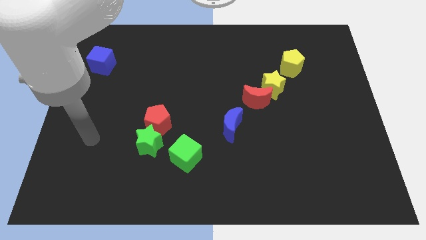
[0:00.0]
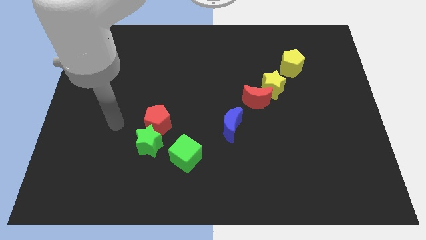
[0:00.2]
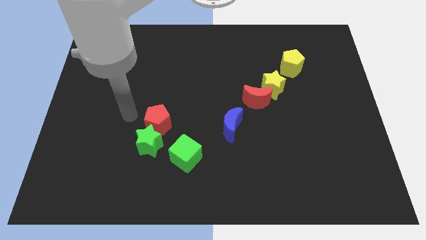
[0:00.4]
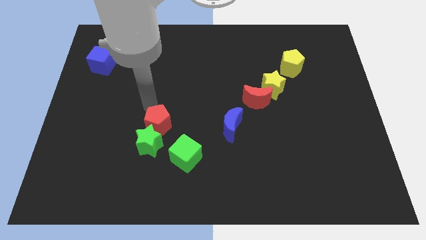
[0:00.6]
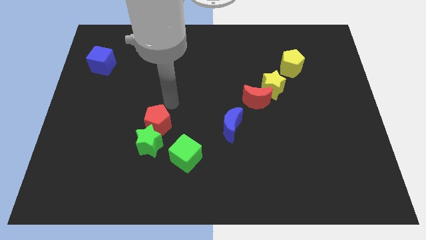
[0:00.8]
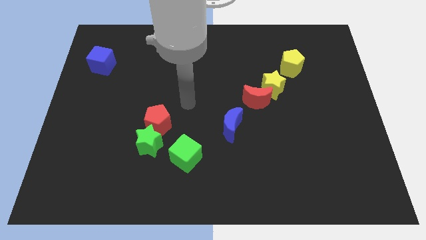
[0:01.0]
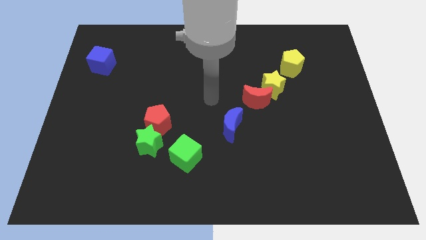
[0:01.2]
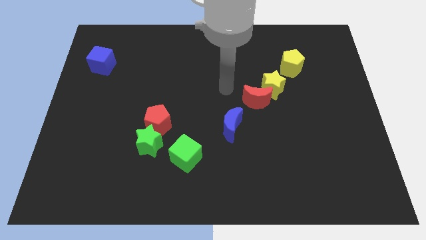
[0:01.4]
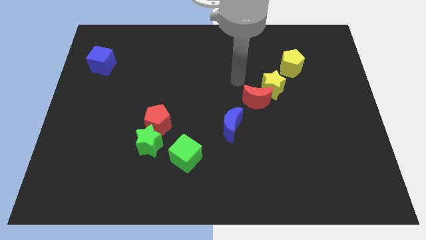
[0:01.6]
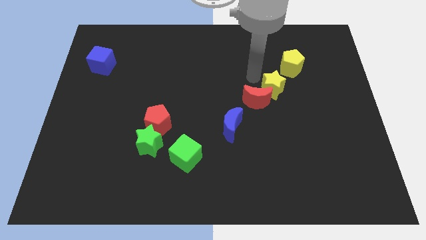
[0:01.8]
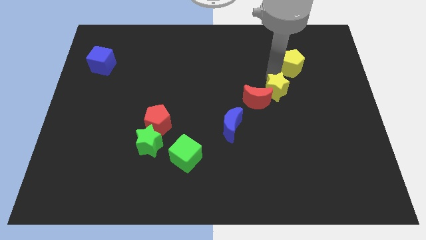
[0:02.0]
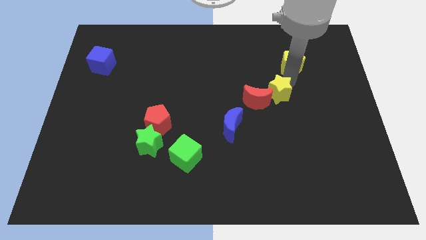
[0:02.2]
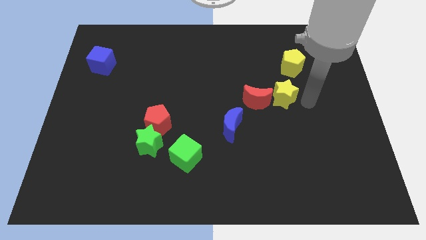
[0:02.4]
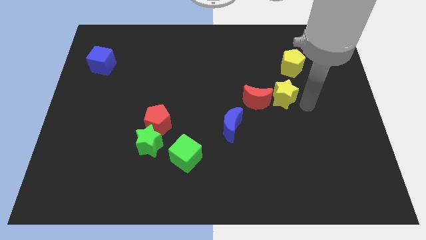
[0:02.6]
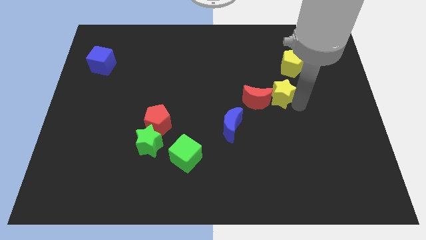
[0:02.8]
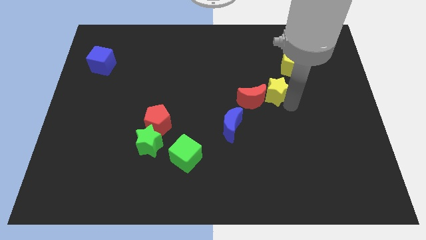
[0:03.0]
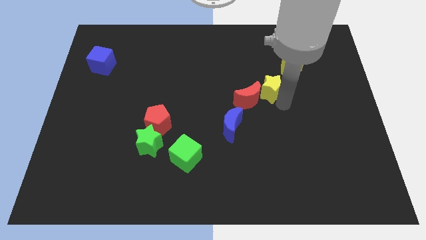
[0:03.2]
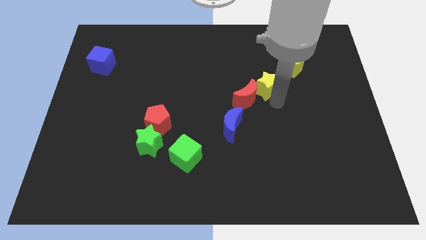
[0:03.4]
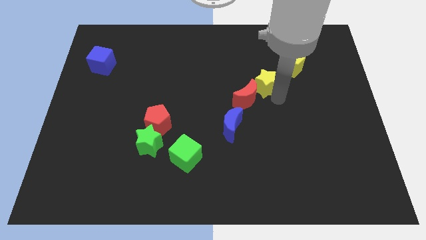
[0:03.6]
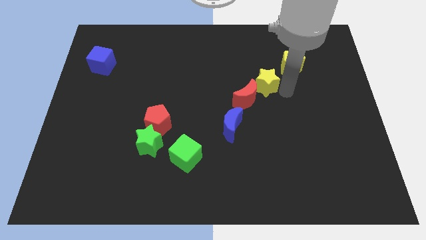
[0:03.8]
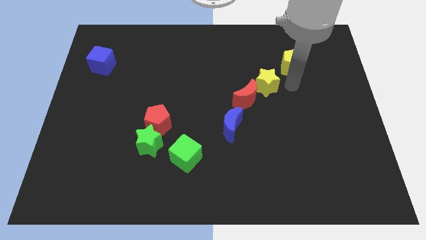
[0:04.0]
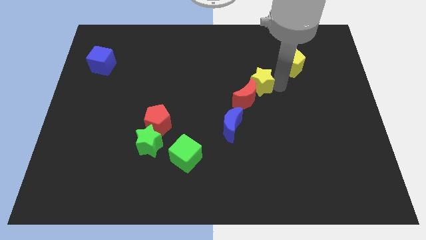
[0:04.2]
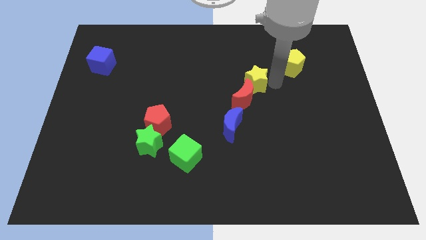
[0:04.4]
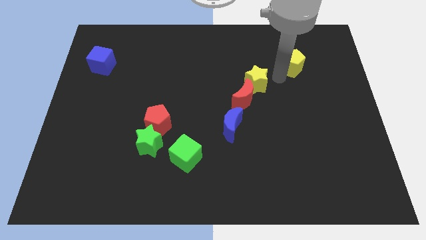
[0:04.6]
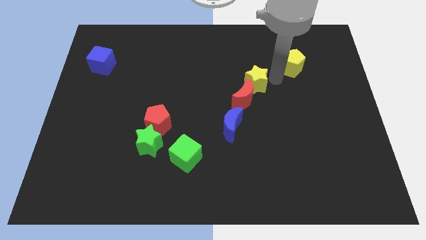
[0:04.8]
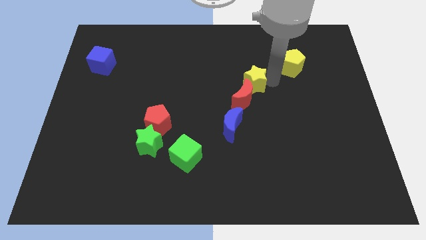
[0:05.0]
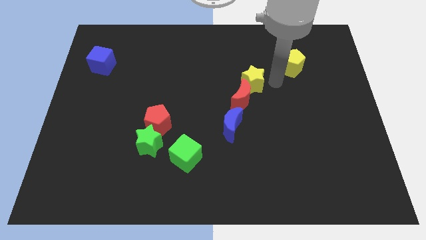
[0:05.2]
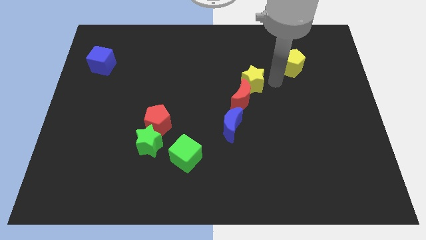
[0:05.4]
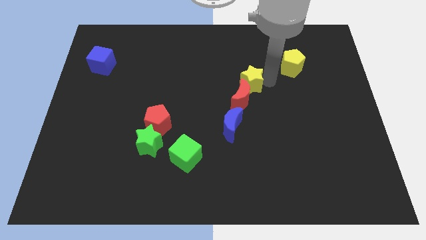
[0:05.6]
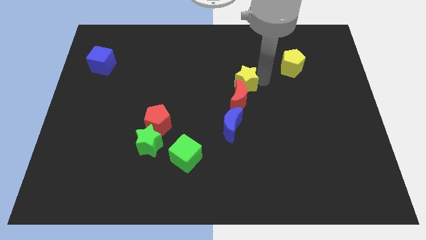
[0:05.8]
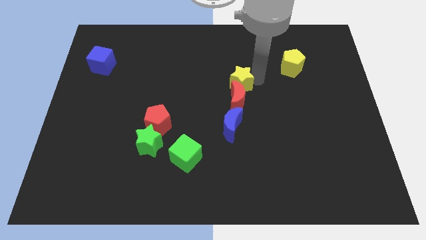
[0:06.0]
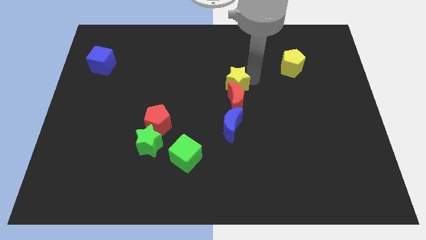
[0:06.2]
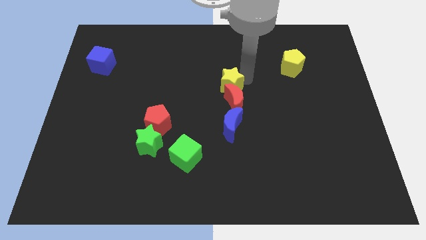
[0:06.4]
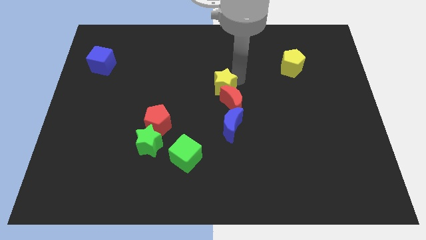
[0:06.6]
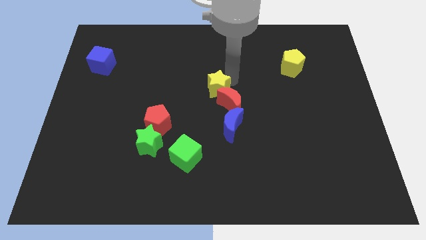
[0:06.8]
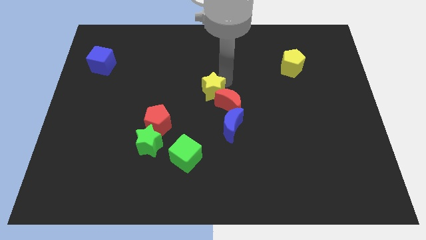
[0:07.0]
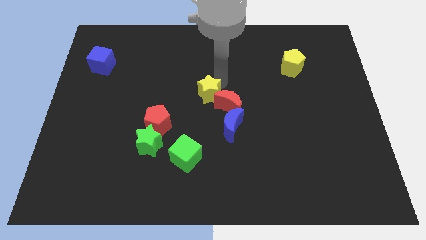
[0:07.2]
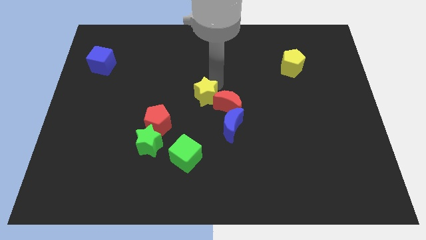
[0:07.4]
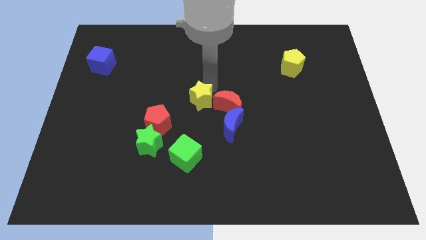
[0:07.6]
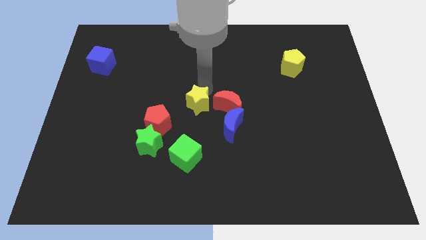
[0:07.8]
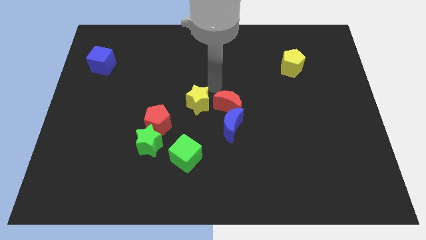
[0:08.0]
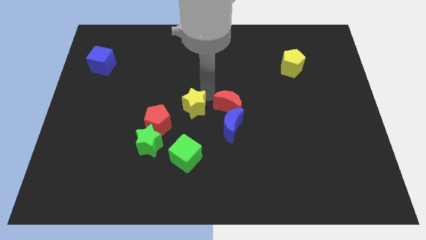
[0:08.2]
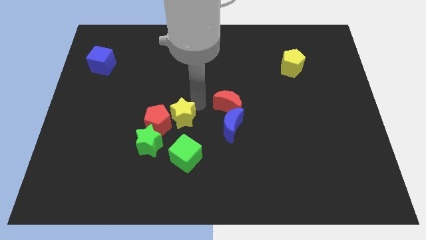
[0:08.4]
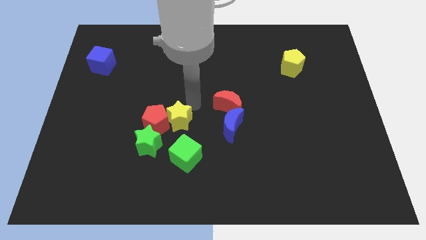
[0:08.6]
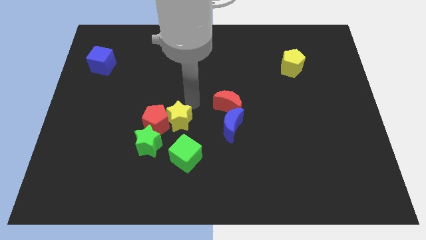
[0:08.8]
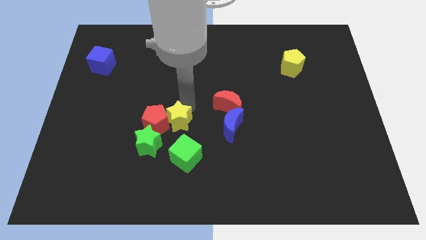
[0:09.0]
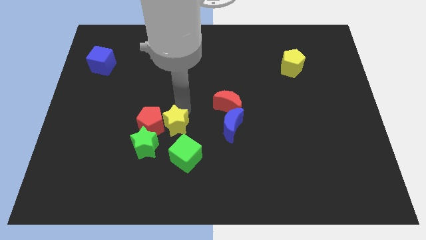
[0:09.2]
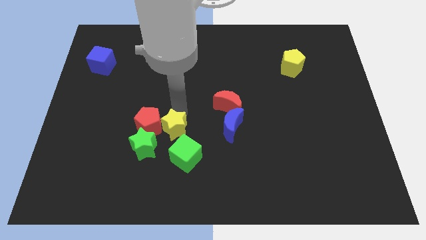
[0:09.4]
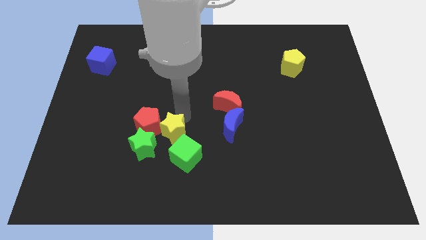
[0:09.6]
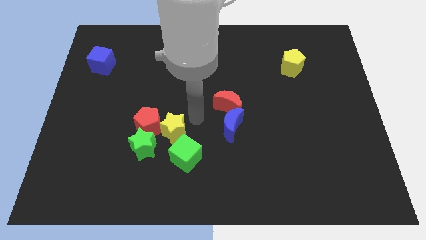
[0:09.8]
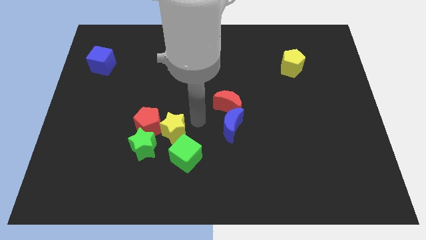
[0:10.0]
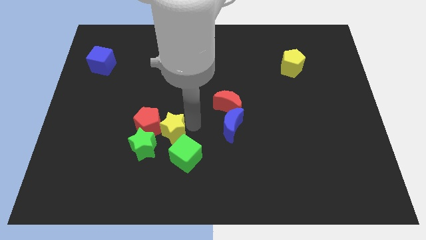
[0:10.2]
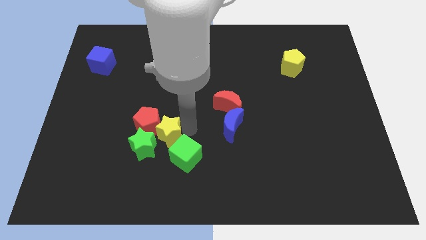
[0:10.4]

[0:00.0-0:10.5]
slide the yellow star towards the green star

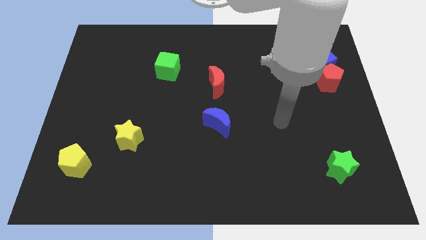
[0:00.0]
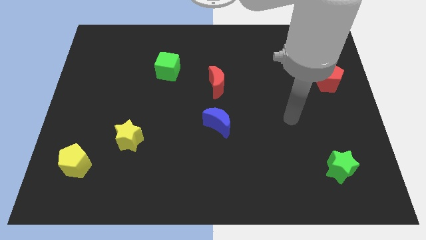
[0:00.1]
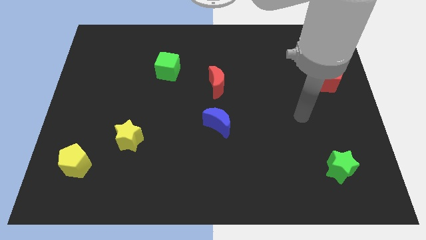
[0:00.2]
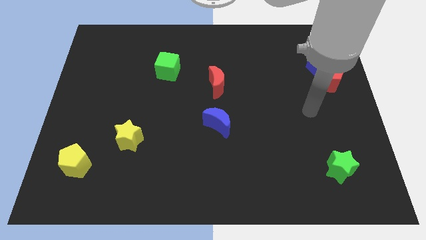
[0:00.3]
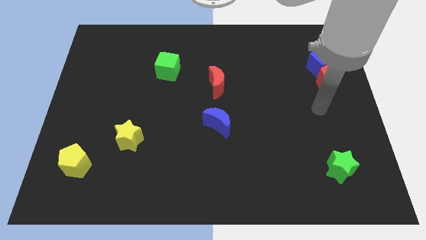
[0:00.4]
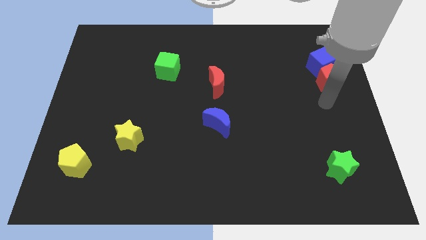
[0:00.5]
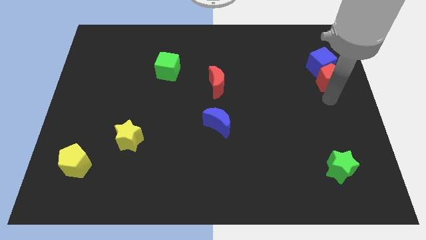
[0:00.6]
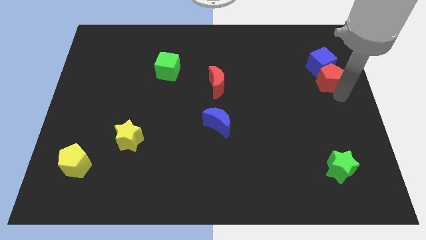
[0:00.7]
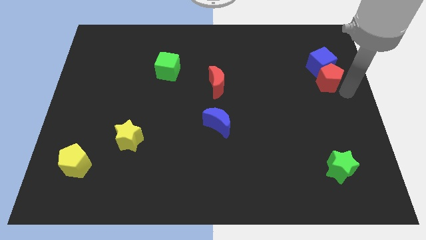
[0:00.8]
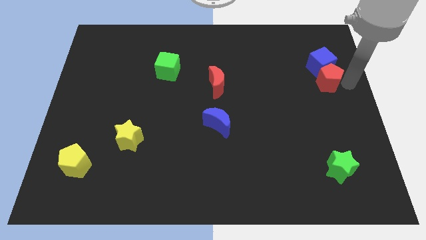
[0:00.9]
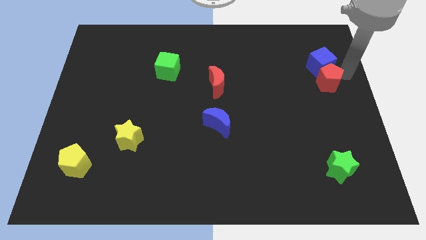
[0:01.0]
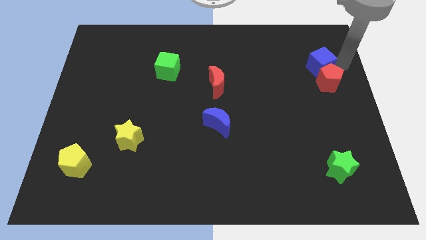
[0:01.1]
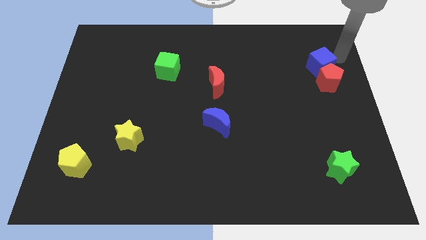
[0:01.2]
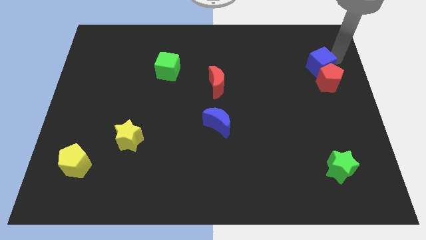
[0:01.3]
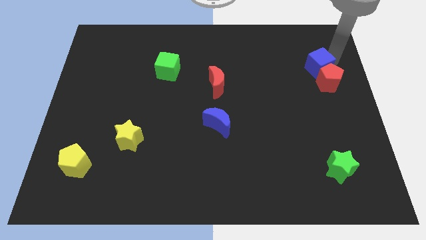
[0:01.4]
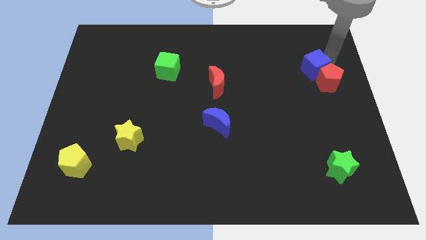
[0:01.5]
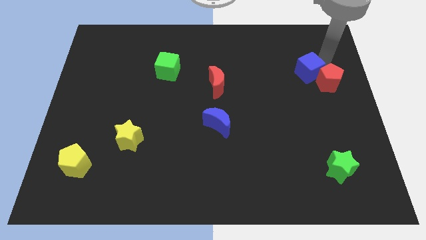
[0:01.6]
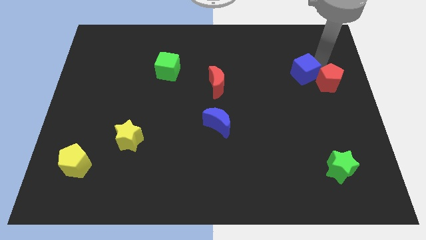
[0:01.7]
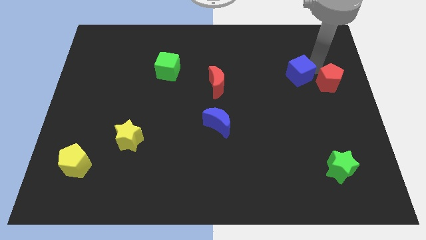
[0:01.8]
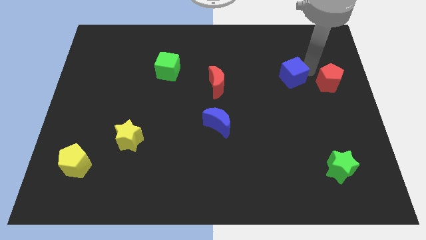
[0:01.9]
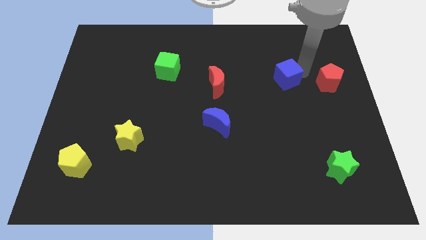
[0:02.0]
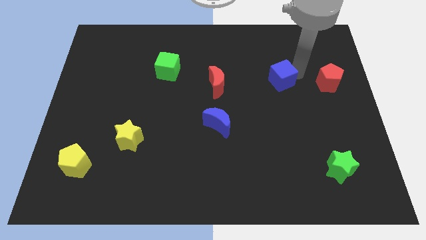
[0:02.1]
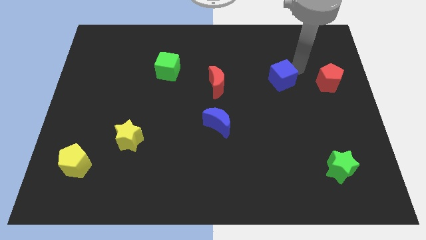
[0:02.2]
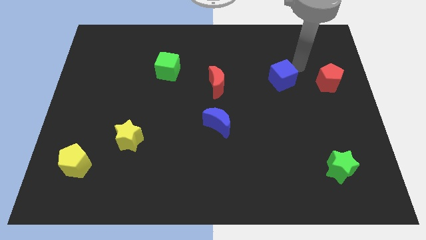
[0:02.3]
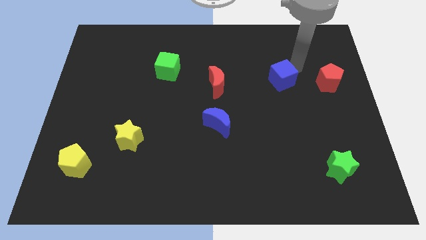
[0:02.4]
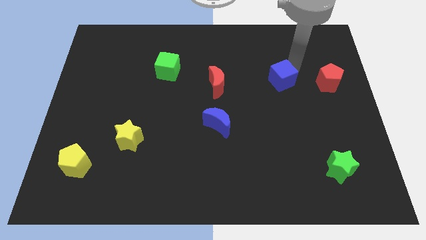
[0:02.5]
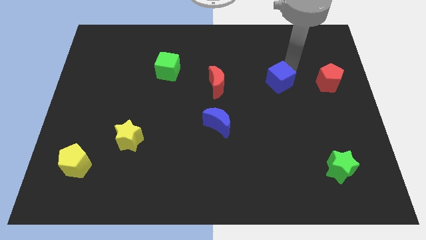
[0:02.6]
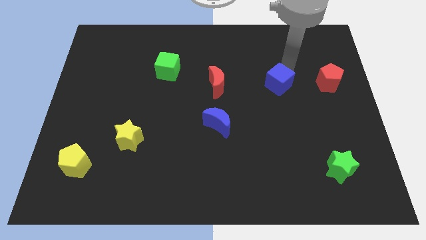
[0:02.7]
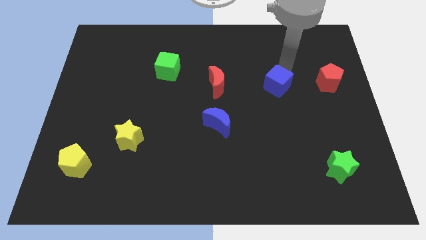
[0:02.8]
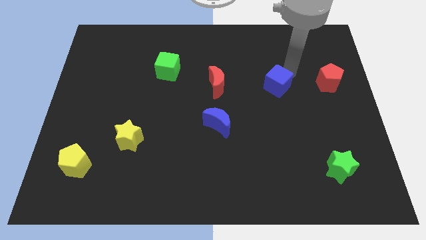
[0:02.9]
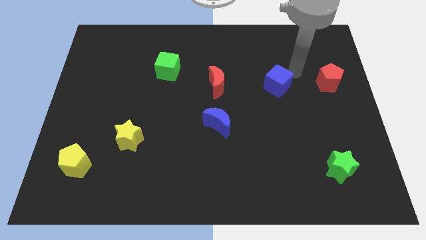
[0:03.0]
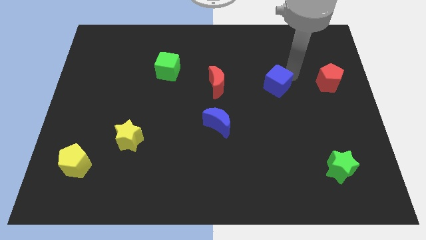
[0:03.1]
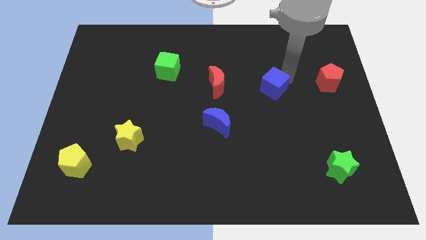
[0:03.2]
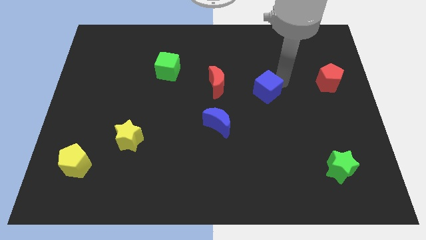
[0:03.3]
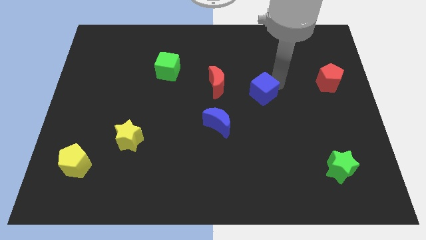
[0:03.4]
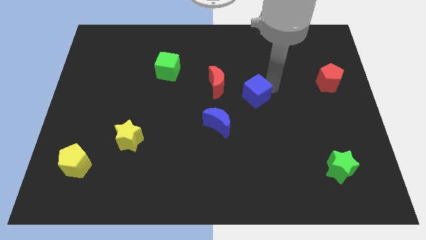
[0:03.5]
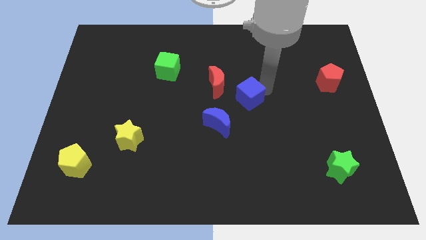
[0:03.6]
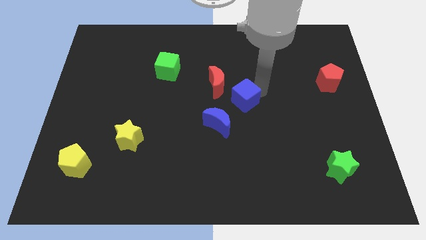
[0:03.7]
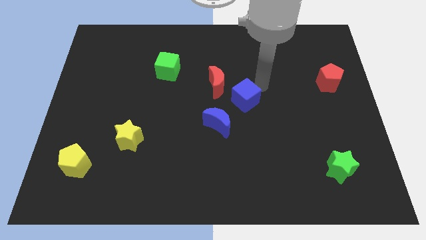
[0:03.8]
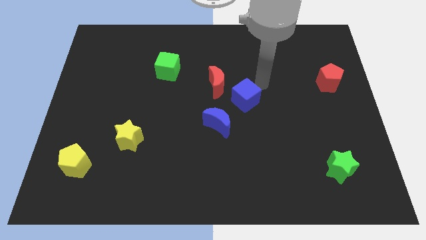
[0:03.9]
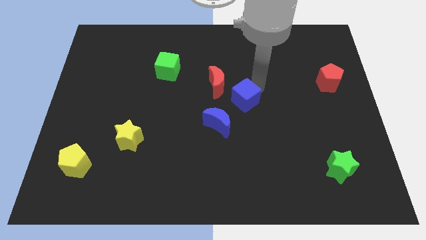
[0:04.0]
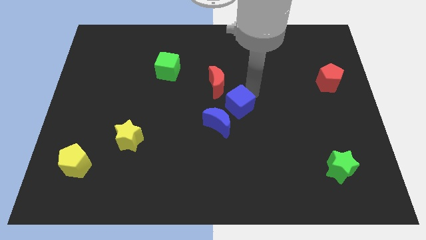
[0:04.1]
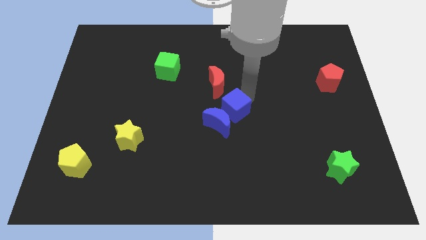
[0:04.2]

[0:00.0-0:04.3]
push the blue cube next to the blue moon
